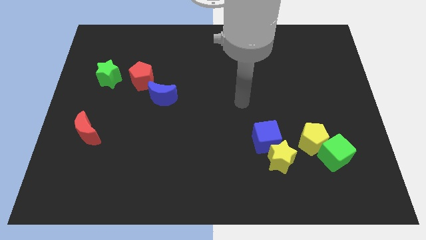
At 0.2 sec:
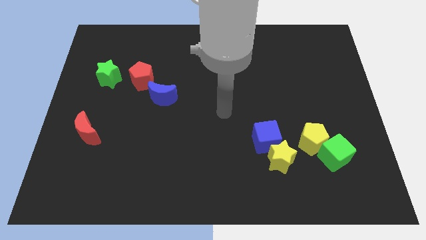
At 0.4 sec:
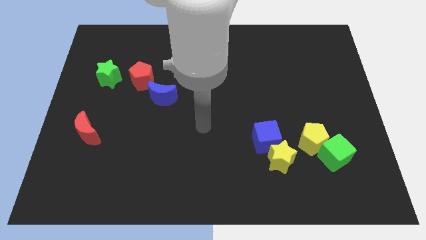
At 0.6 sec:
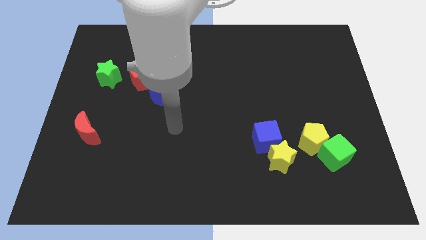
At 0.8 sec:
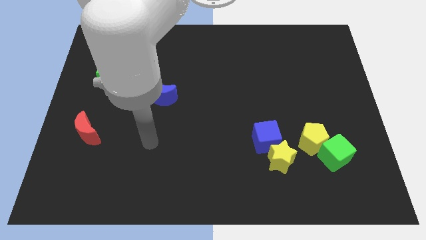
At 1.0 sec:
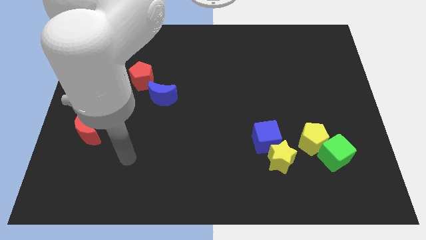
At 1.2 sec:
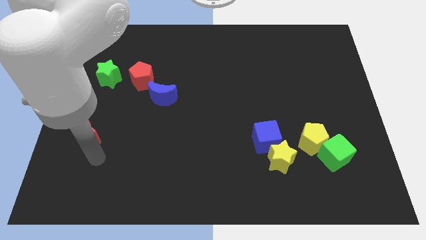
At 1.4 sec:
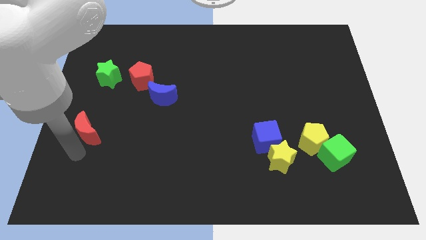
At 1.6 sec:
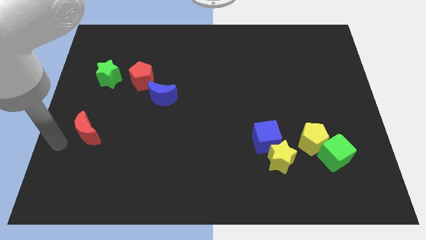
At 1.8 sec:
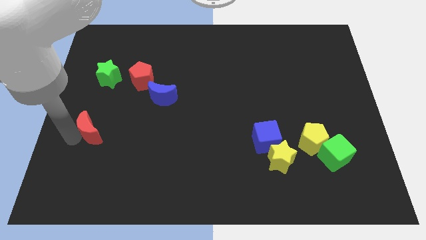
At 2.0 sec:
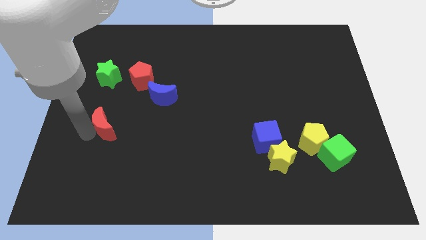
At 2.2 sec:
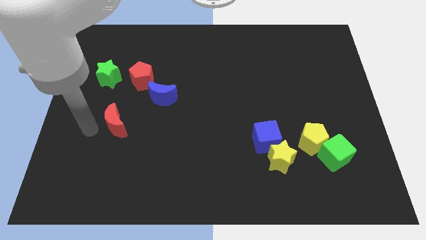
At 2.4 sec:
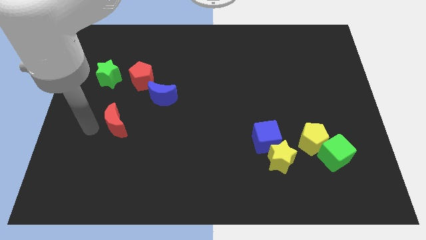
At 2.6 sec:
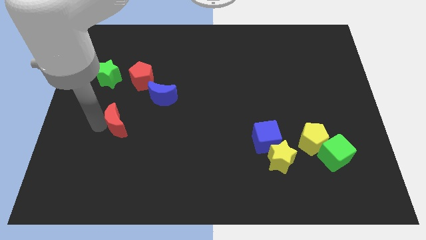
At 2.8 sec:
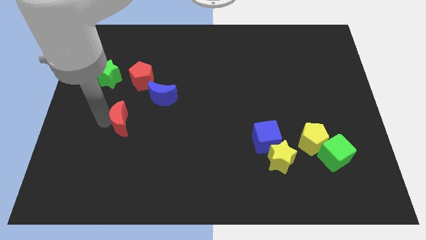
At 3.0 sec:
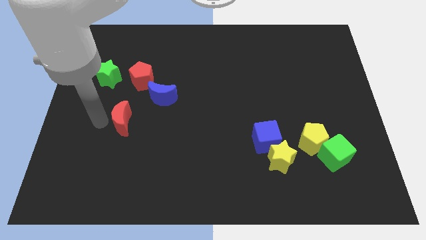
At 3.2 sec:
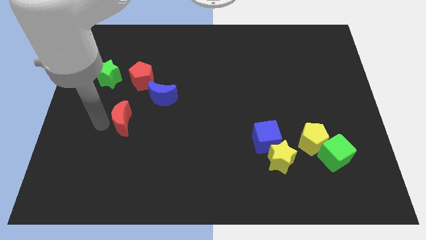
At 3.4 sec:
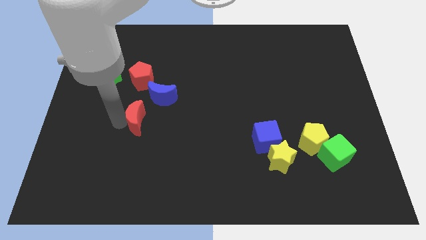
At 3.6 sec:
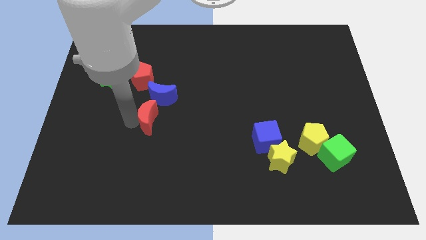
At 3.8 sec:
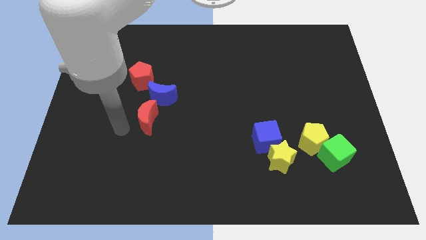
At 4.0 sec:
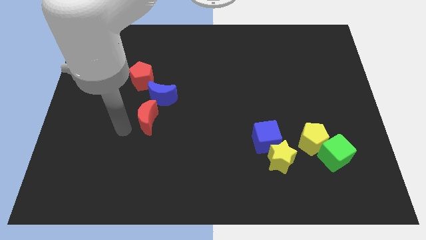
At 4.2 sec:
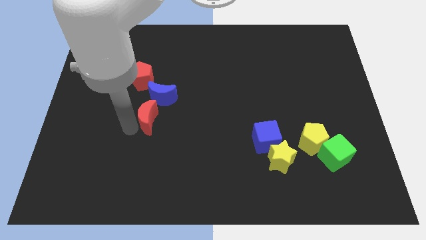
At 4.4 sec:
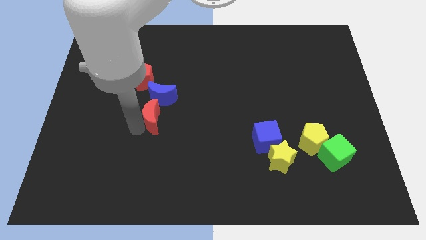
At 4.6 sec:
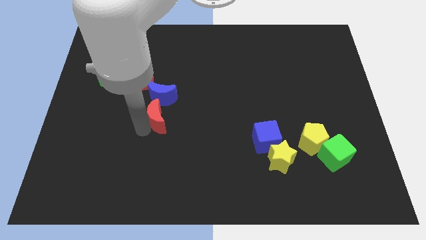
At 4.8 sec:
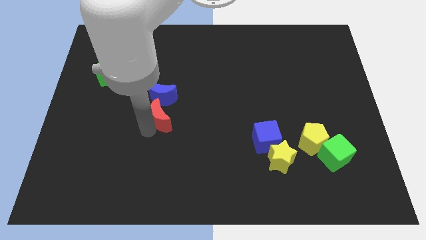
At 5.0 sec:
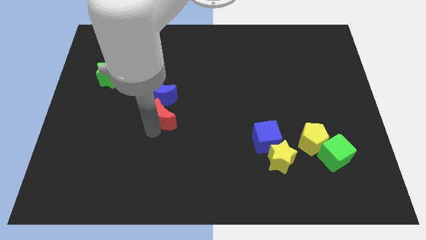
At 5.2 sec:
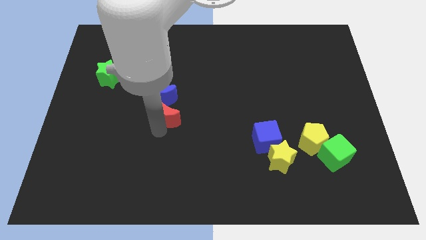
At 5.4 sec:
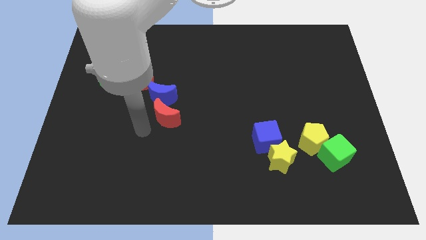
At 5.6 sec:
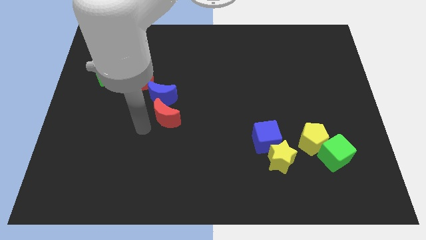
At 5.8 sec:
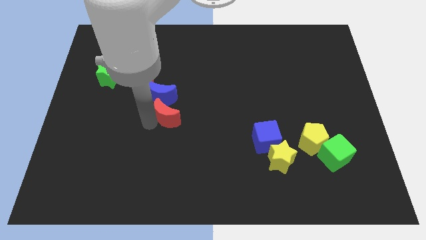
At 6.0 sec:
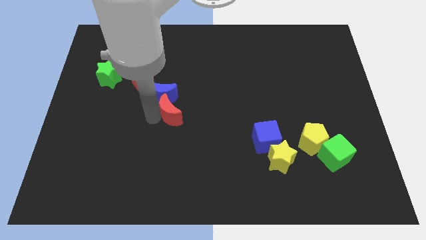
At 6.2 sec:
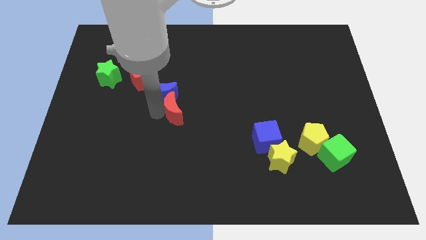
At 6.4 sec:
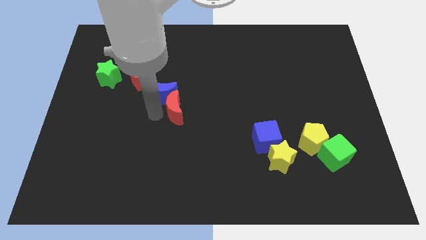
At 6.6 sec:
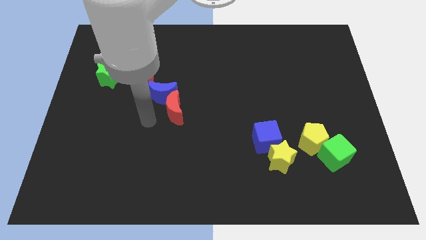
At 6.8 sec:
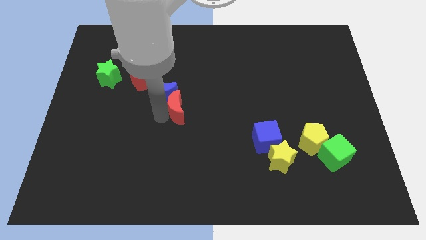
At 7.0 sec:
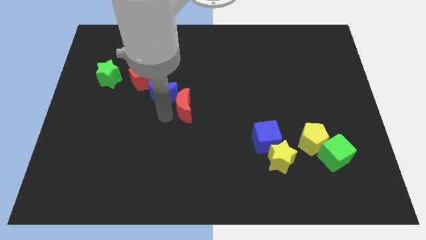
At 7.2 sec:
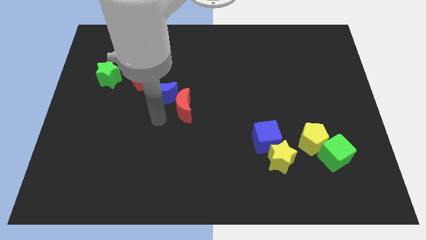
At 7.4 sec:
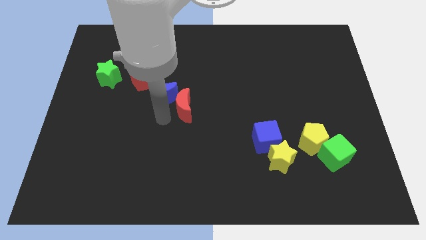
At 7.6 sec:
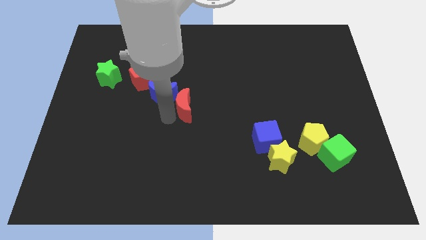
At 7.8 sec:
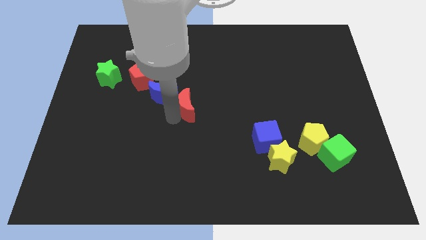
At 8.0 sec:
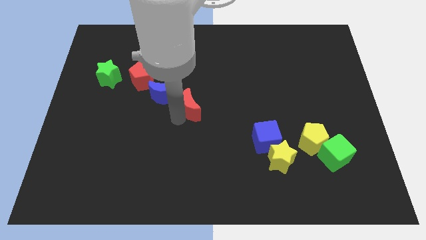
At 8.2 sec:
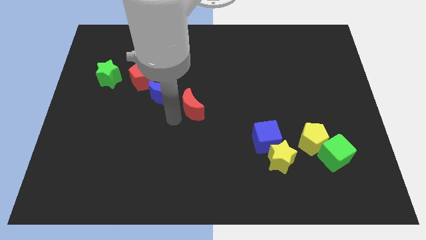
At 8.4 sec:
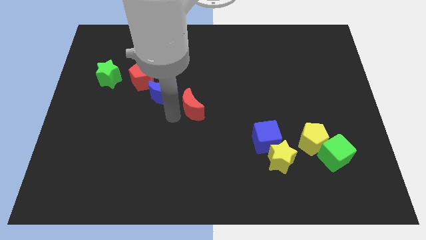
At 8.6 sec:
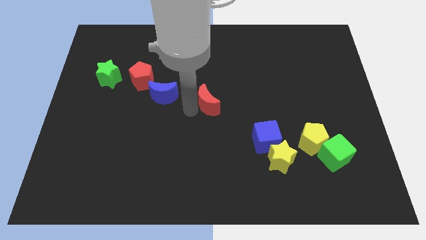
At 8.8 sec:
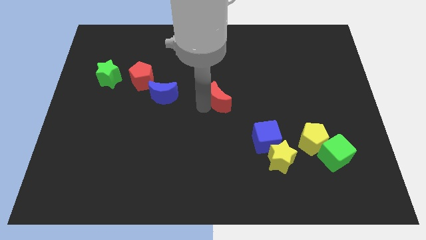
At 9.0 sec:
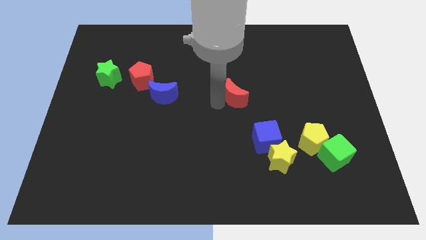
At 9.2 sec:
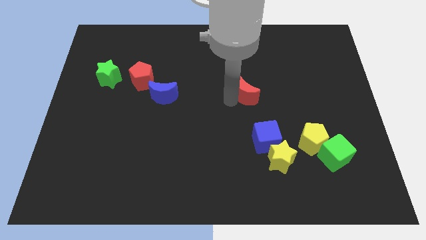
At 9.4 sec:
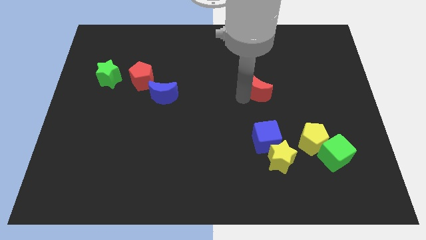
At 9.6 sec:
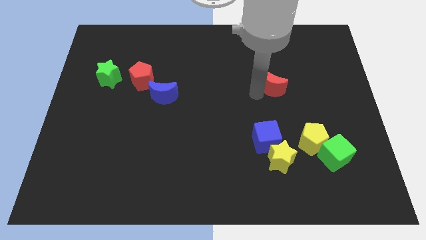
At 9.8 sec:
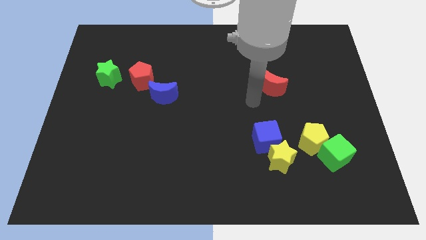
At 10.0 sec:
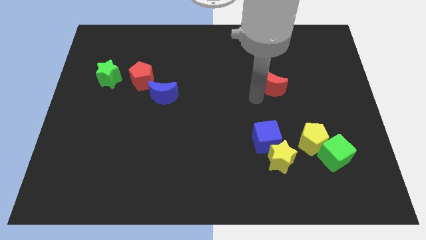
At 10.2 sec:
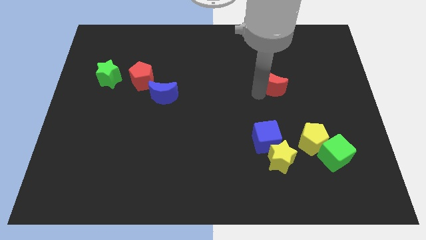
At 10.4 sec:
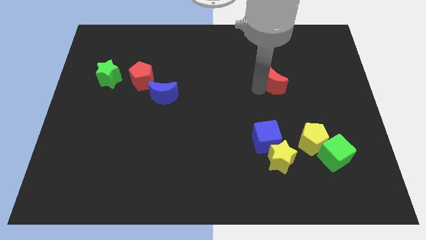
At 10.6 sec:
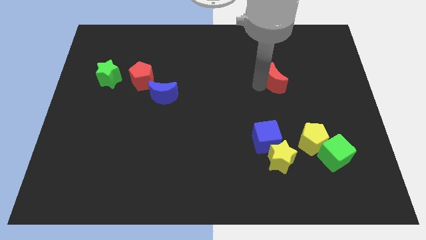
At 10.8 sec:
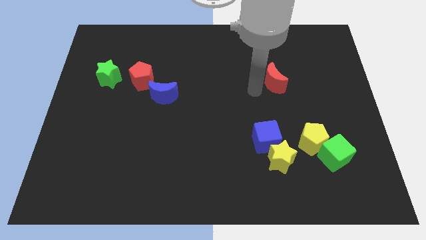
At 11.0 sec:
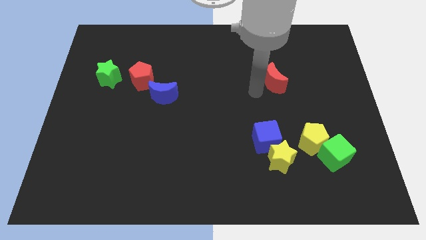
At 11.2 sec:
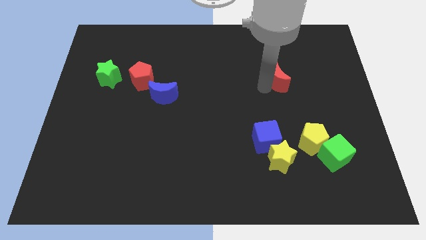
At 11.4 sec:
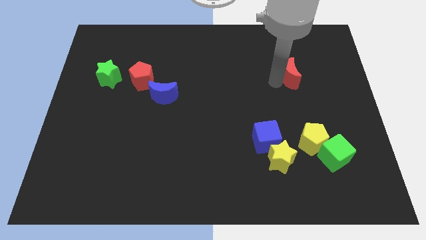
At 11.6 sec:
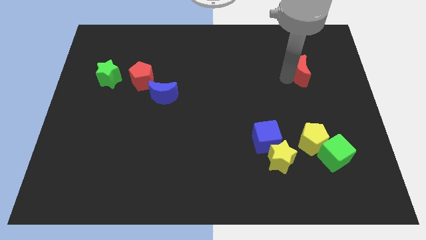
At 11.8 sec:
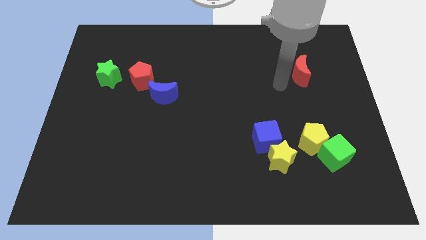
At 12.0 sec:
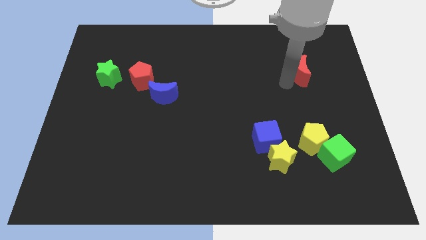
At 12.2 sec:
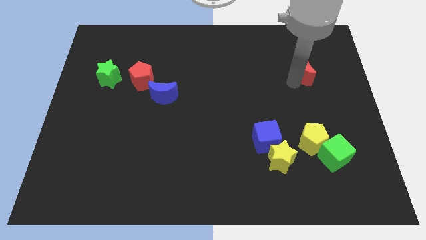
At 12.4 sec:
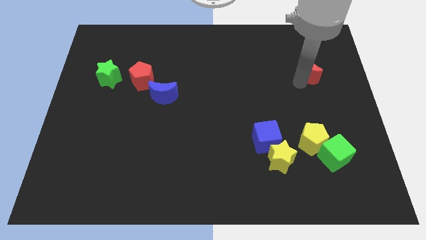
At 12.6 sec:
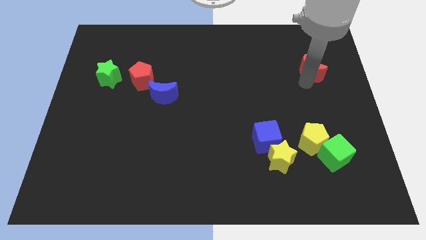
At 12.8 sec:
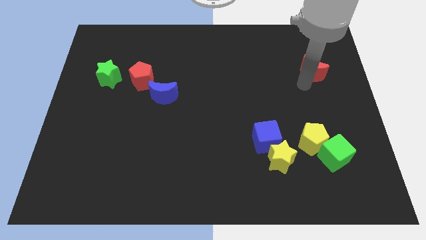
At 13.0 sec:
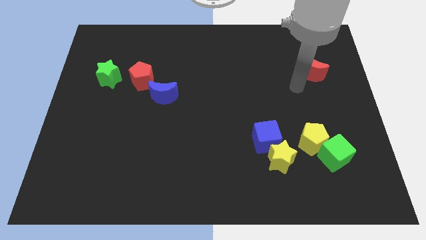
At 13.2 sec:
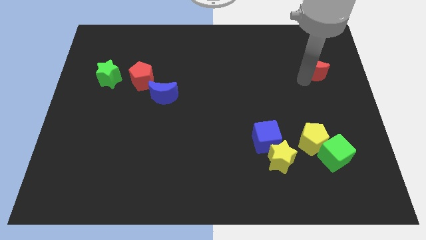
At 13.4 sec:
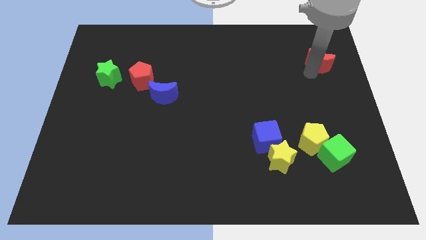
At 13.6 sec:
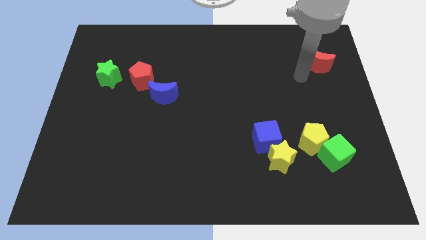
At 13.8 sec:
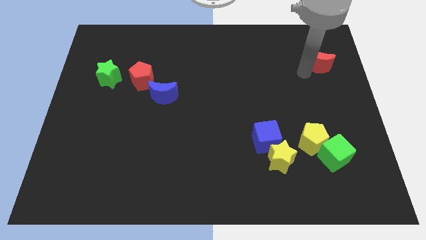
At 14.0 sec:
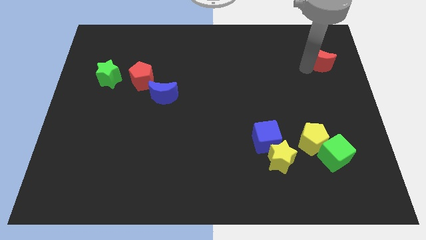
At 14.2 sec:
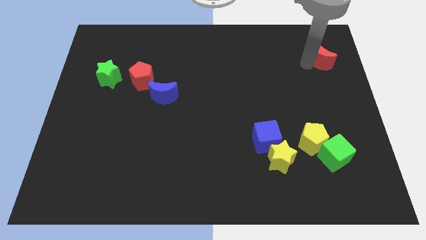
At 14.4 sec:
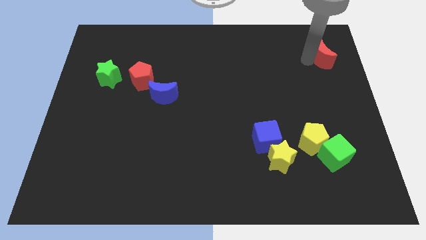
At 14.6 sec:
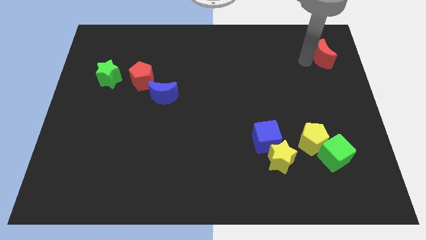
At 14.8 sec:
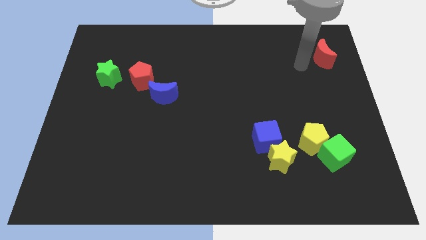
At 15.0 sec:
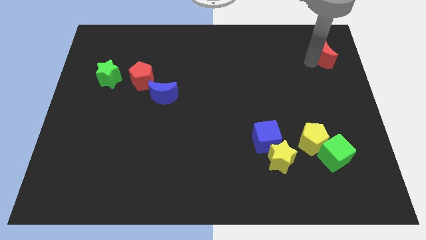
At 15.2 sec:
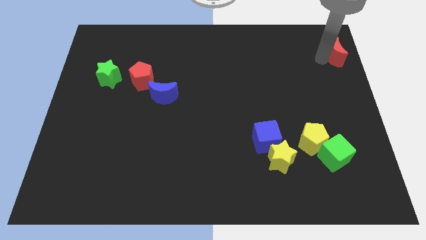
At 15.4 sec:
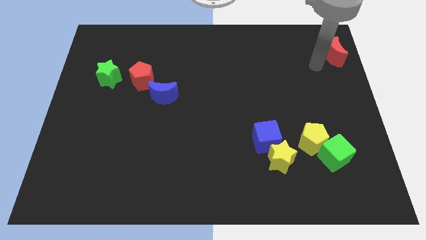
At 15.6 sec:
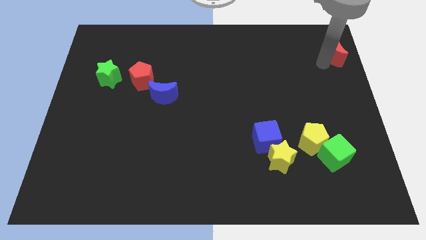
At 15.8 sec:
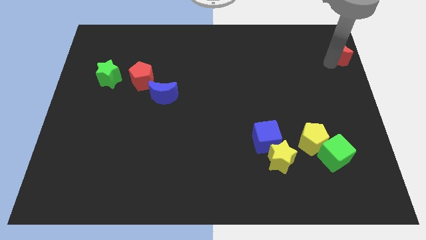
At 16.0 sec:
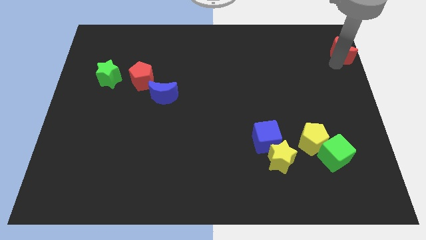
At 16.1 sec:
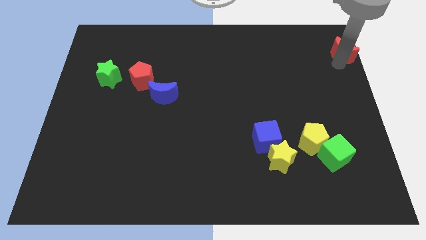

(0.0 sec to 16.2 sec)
move the red moon to the top right corner
